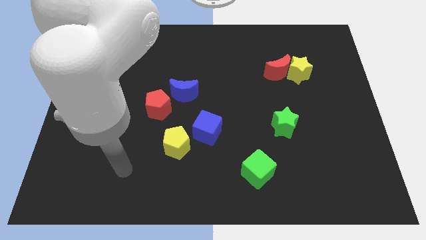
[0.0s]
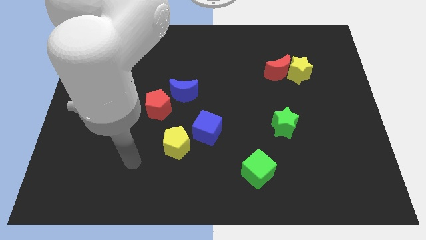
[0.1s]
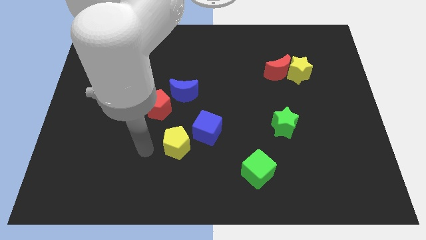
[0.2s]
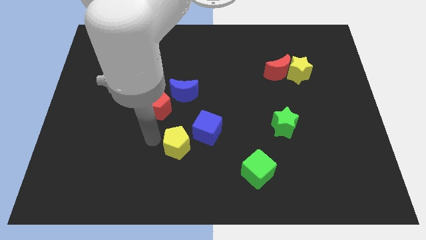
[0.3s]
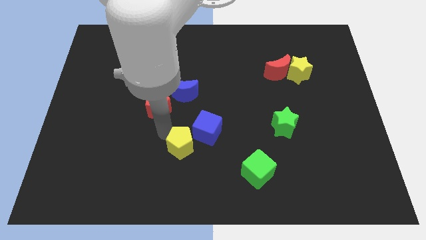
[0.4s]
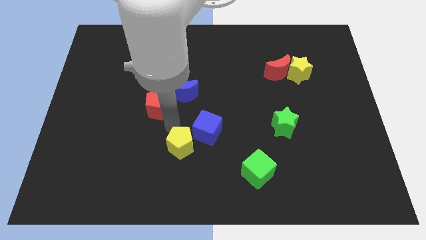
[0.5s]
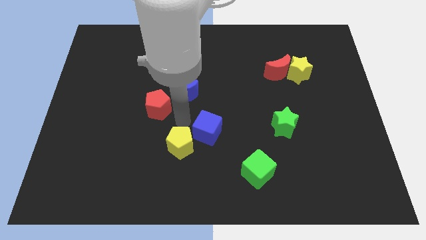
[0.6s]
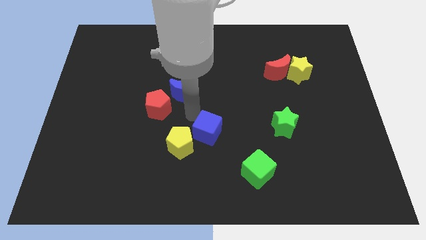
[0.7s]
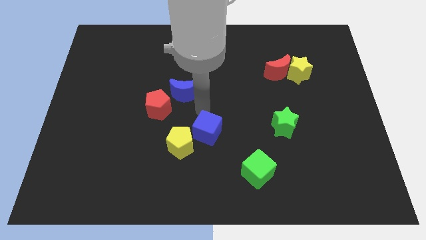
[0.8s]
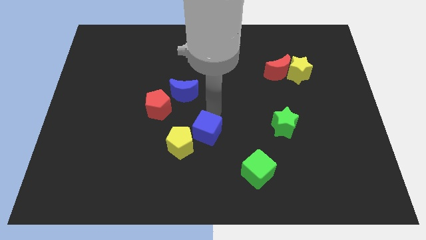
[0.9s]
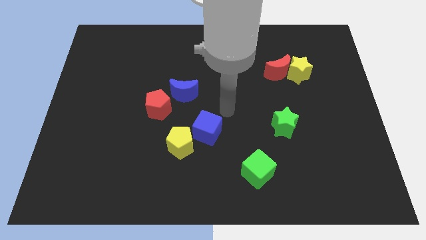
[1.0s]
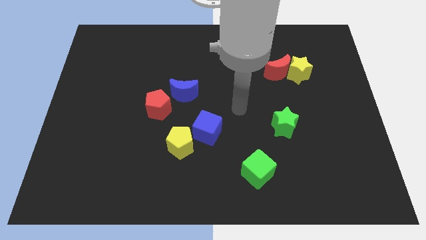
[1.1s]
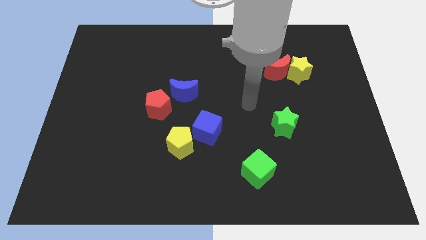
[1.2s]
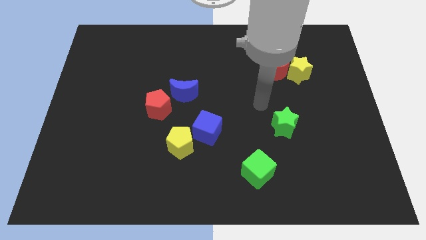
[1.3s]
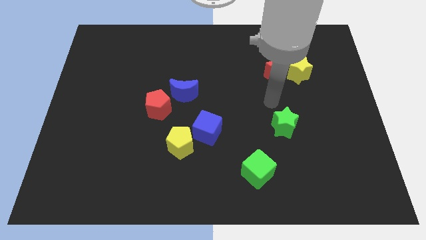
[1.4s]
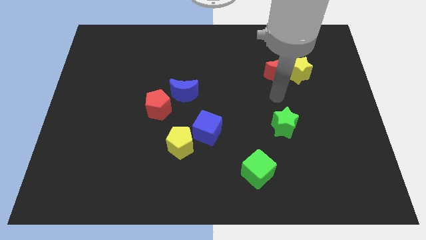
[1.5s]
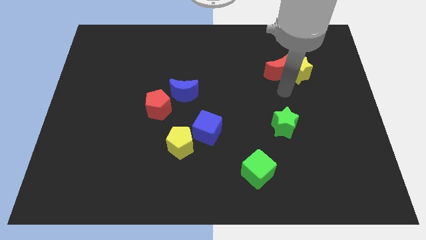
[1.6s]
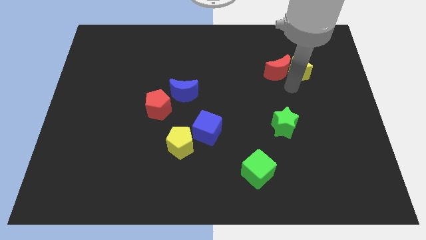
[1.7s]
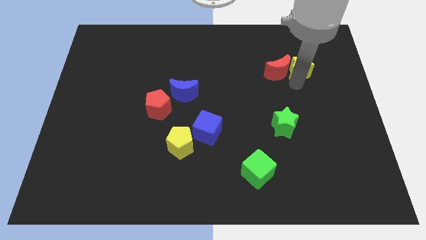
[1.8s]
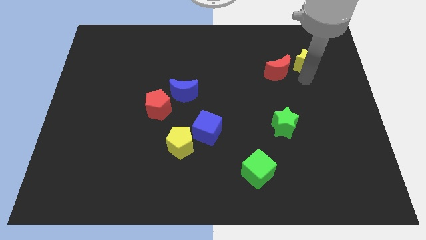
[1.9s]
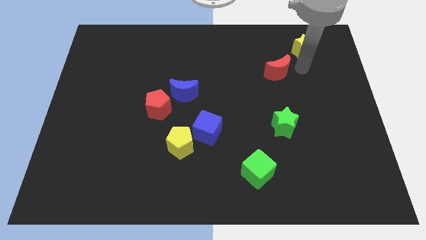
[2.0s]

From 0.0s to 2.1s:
move the red moon away from the yellow star

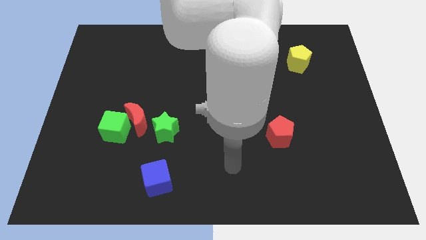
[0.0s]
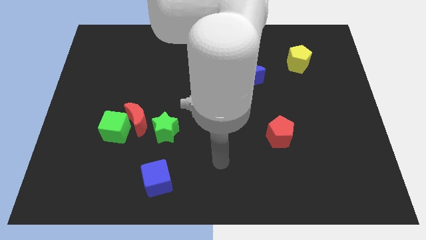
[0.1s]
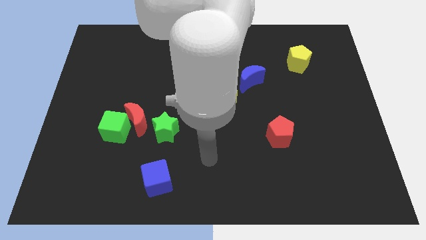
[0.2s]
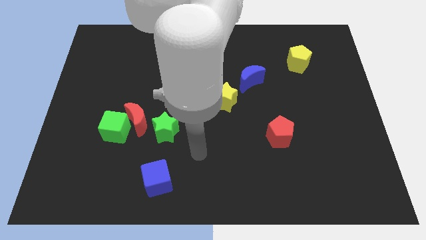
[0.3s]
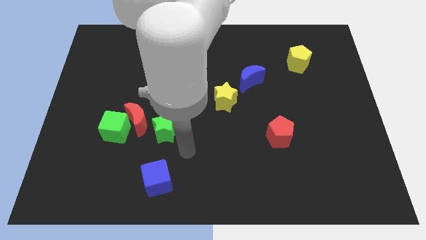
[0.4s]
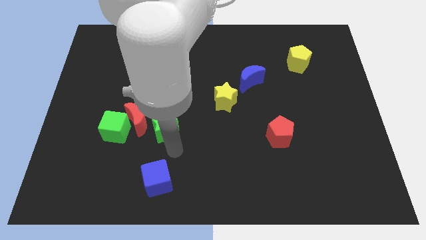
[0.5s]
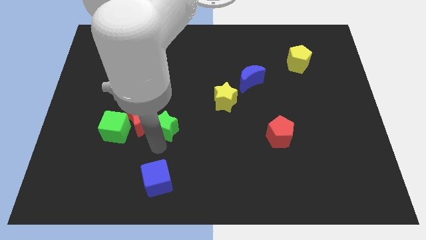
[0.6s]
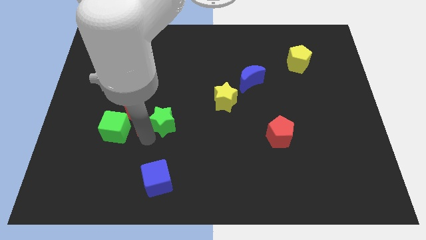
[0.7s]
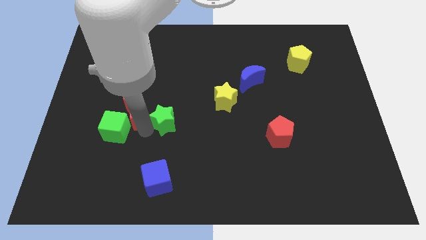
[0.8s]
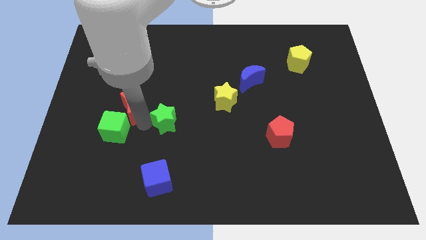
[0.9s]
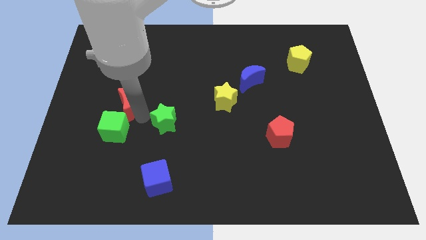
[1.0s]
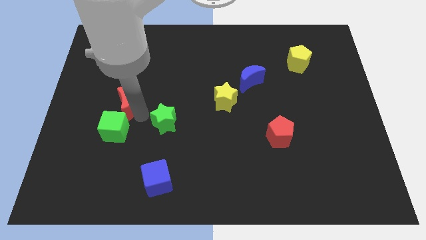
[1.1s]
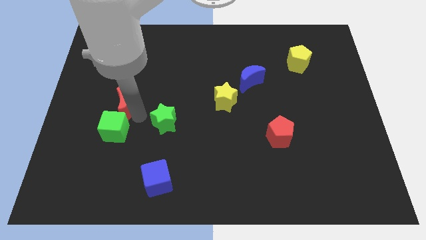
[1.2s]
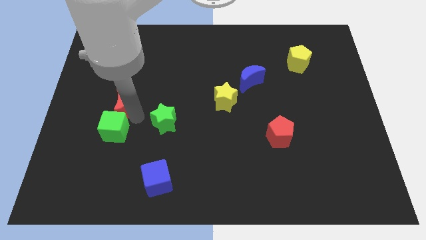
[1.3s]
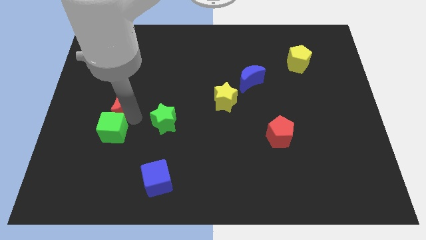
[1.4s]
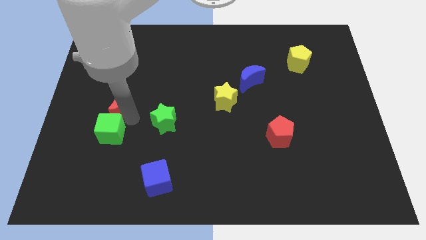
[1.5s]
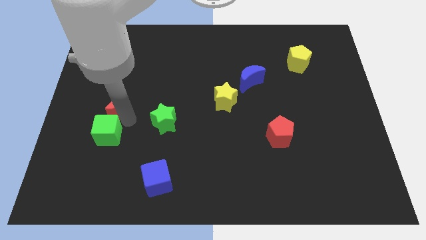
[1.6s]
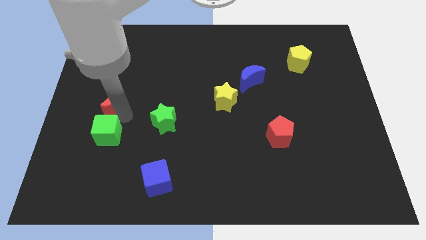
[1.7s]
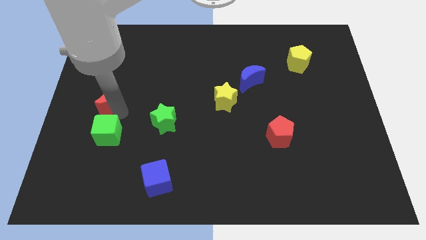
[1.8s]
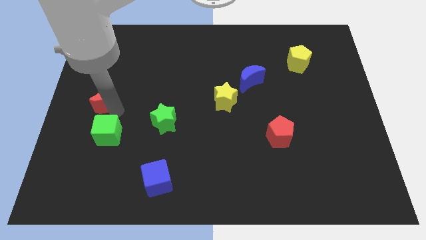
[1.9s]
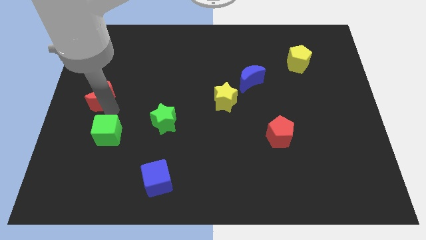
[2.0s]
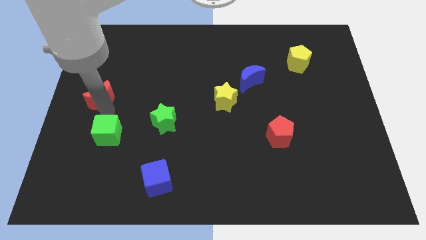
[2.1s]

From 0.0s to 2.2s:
move the green cube away from the red moon

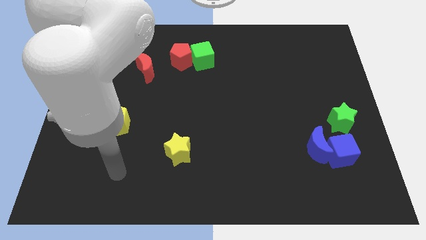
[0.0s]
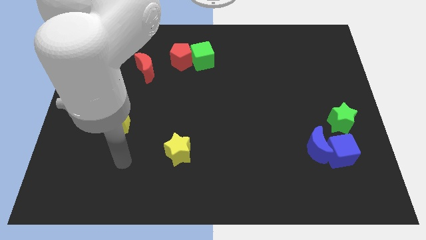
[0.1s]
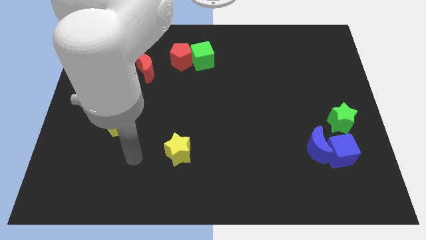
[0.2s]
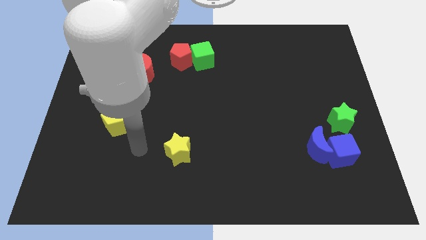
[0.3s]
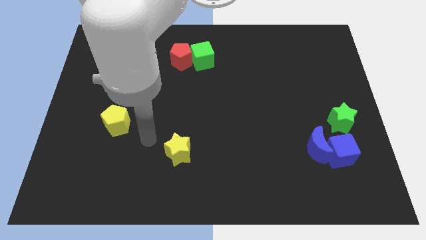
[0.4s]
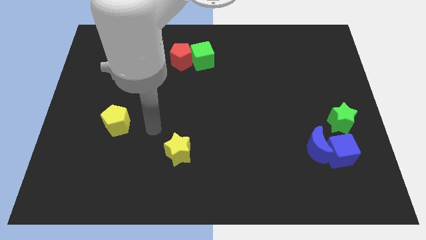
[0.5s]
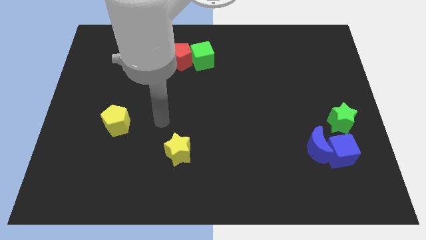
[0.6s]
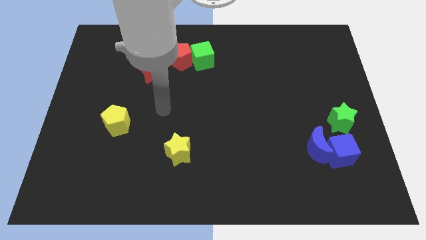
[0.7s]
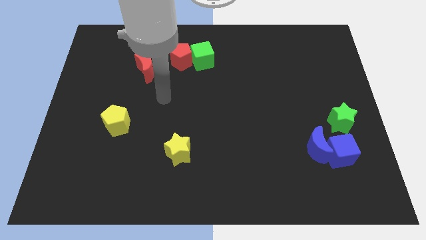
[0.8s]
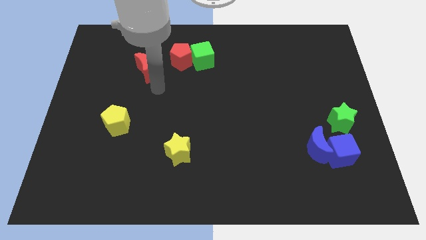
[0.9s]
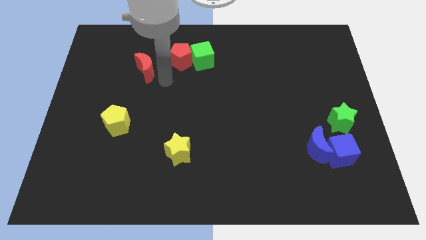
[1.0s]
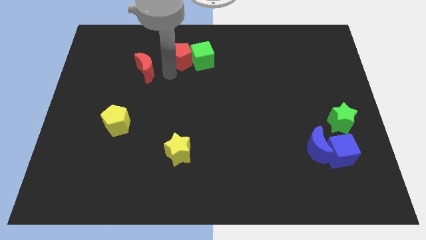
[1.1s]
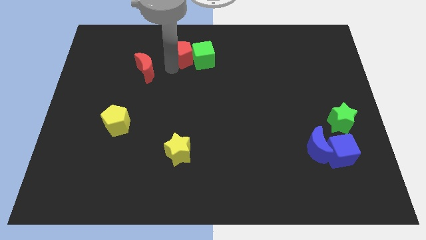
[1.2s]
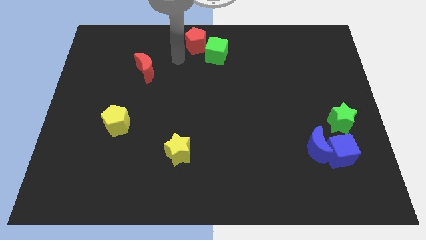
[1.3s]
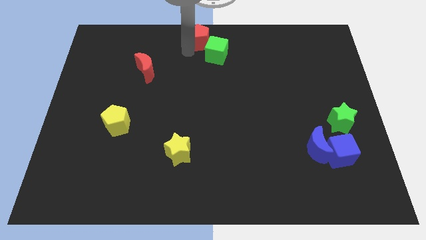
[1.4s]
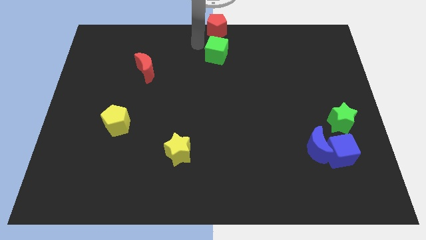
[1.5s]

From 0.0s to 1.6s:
pull the green cube apart from the red pentagon

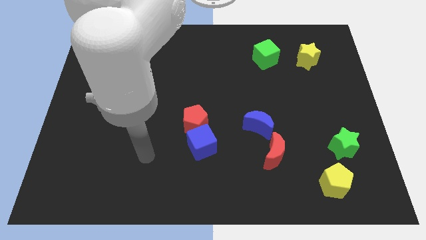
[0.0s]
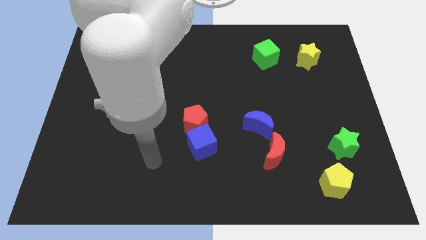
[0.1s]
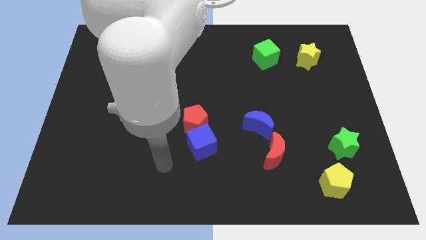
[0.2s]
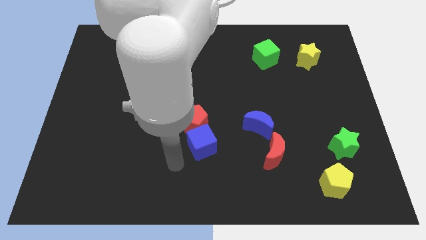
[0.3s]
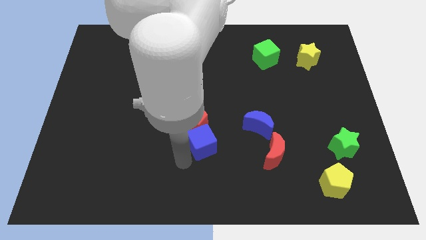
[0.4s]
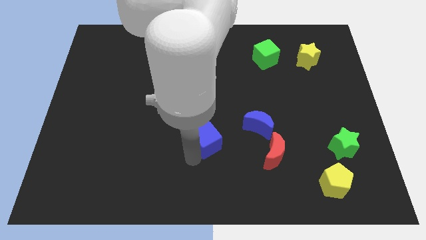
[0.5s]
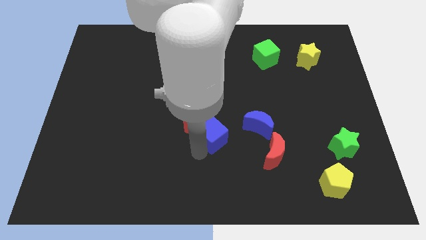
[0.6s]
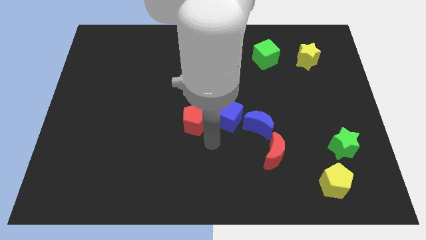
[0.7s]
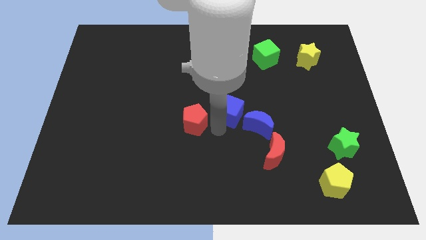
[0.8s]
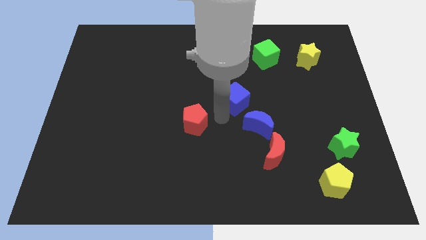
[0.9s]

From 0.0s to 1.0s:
separate the red pentagon from the blue cube

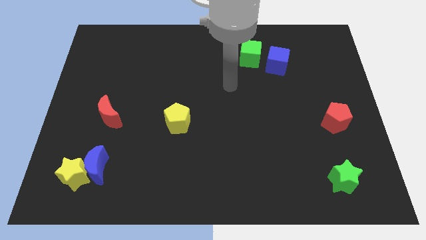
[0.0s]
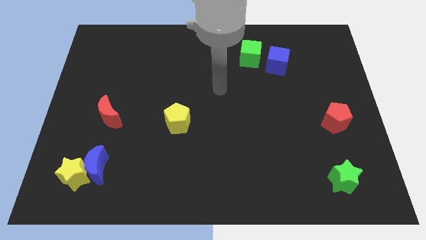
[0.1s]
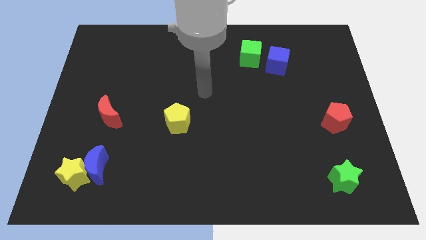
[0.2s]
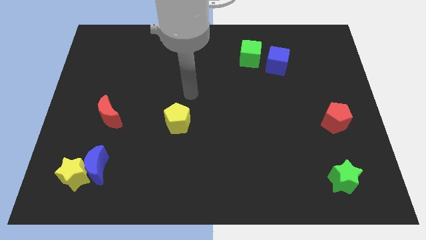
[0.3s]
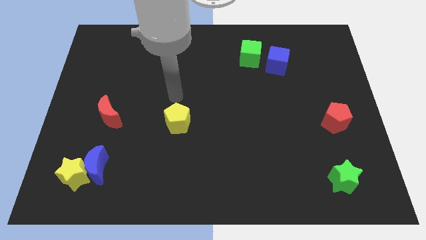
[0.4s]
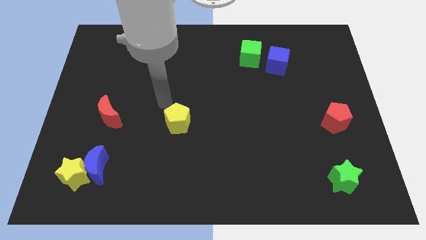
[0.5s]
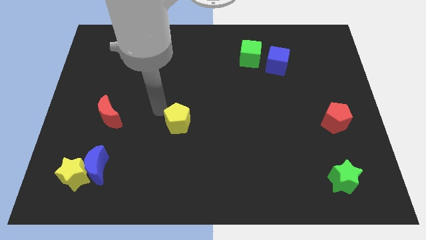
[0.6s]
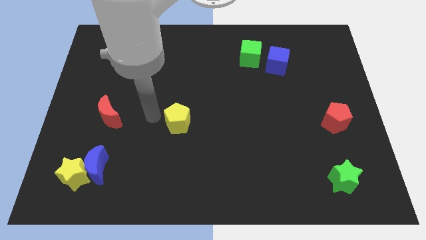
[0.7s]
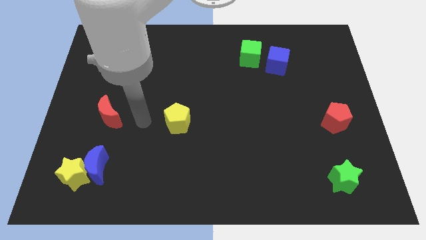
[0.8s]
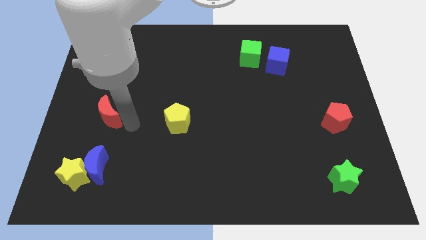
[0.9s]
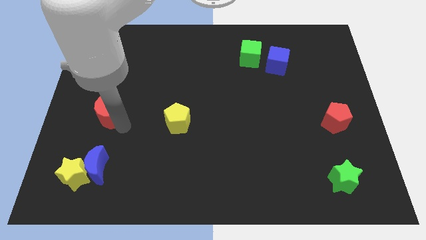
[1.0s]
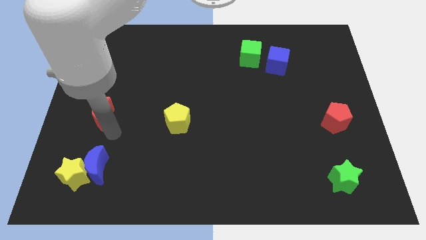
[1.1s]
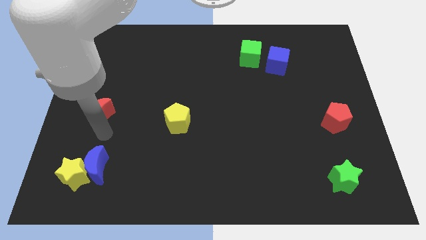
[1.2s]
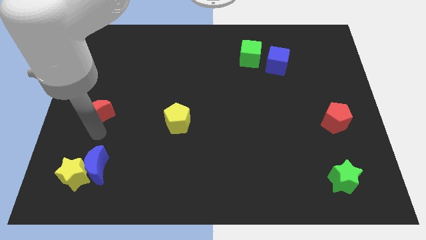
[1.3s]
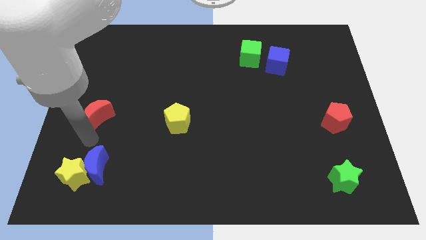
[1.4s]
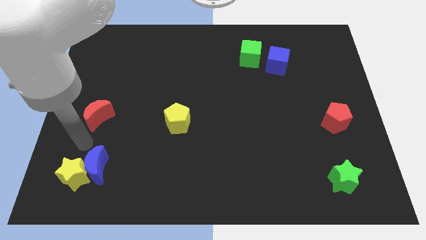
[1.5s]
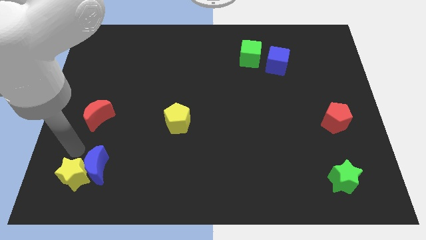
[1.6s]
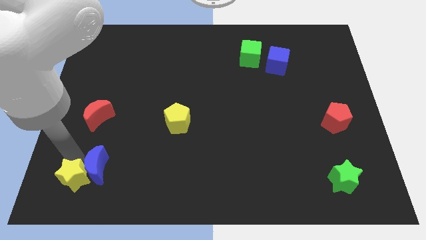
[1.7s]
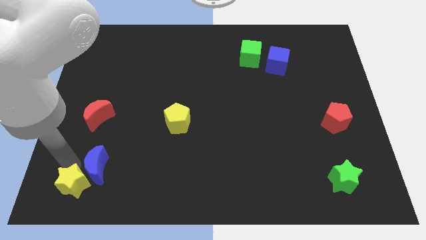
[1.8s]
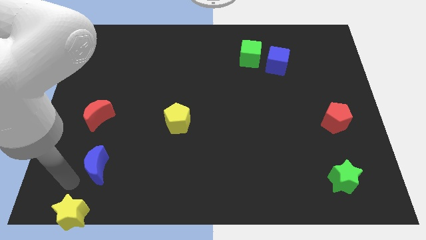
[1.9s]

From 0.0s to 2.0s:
separate the blue moon from the yellow star

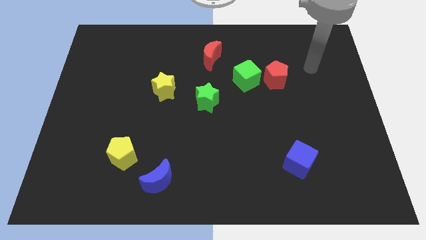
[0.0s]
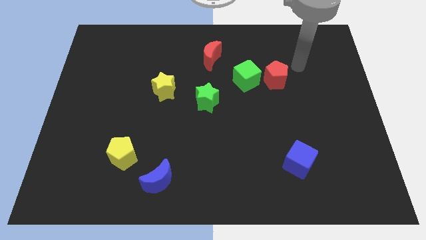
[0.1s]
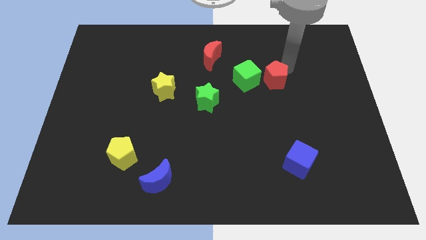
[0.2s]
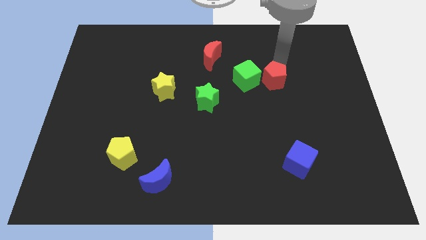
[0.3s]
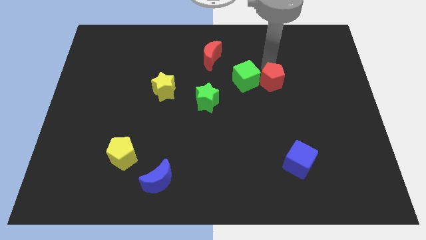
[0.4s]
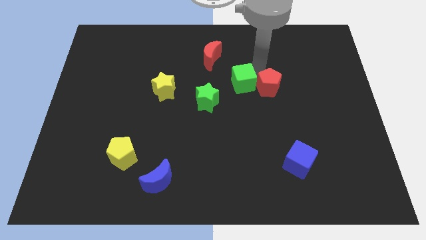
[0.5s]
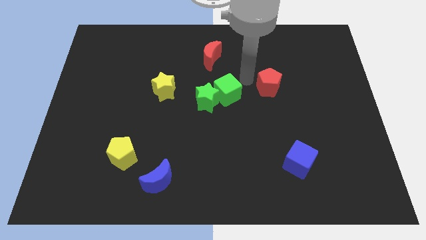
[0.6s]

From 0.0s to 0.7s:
separate the red pentagon from the green cube
